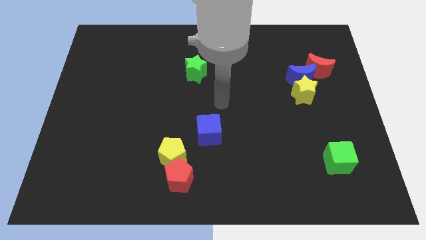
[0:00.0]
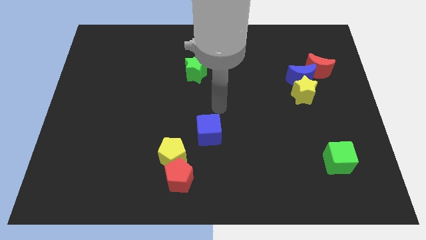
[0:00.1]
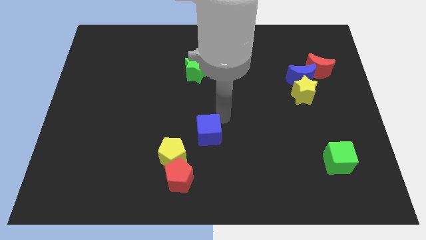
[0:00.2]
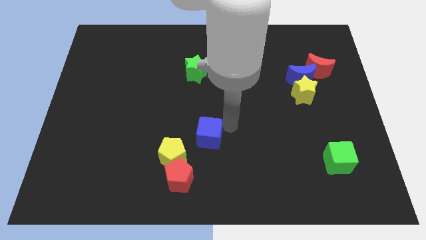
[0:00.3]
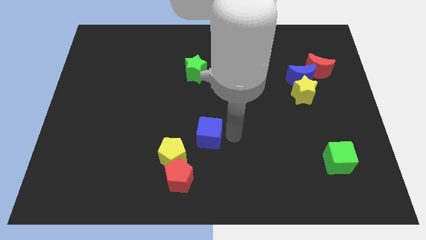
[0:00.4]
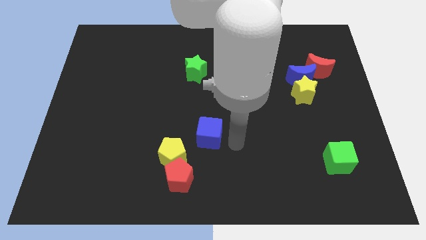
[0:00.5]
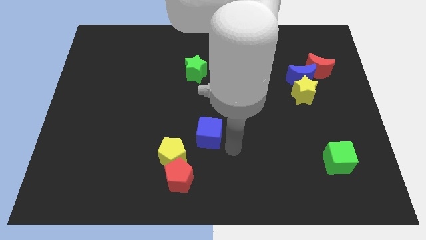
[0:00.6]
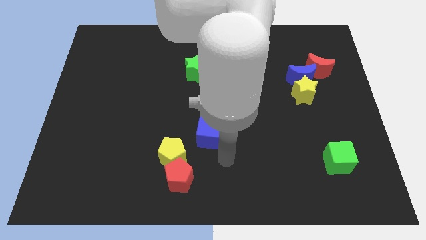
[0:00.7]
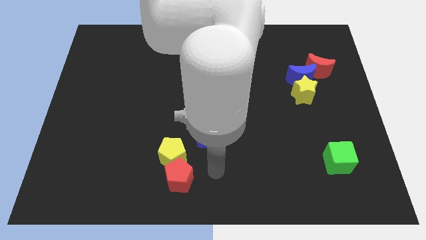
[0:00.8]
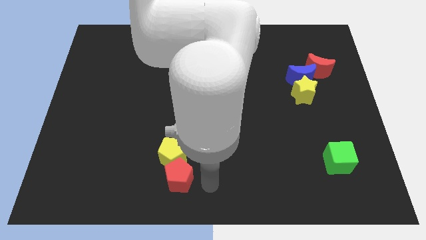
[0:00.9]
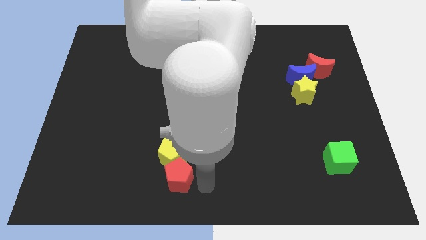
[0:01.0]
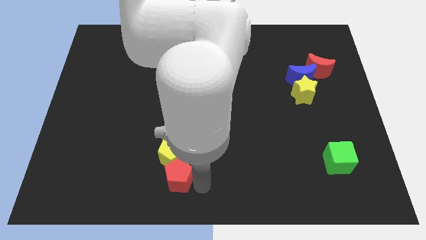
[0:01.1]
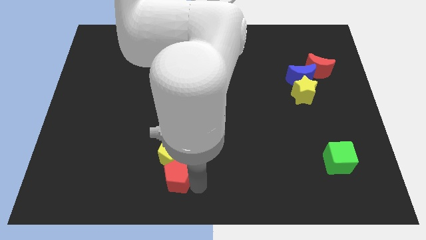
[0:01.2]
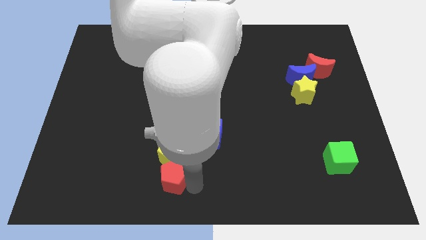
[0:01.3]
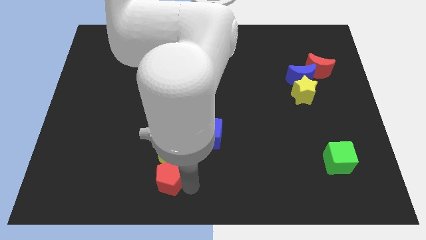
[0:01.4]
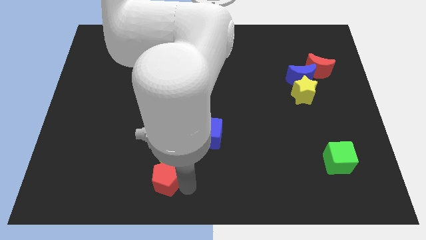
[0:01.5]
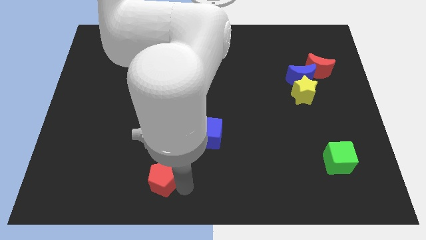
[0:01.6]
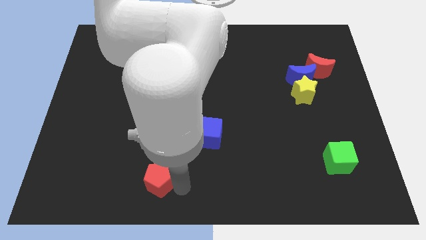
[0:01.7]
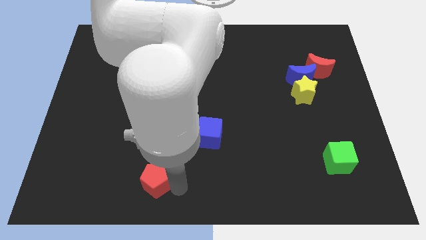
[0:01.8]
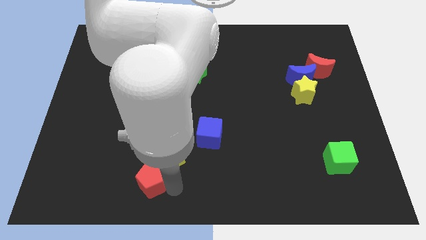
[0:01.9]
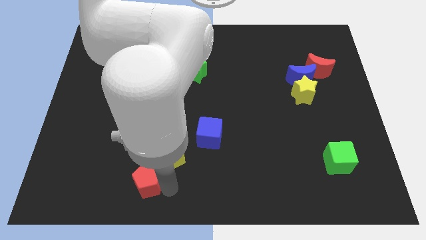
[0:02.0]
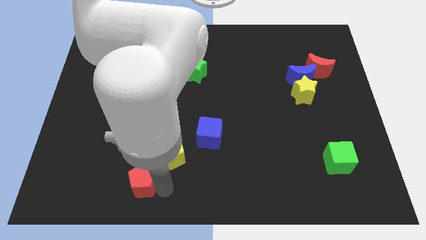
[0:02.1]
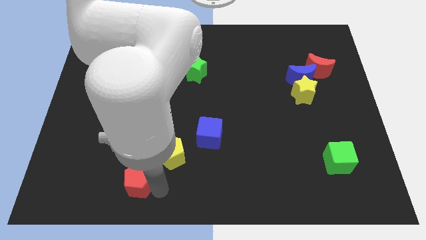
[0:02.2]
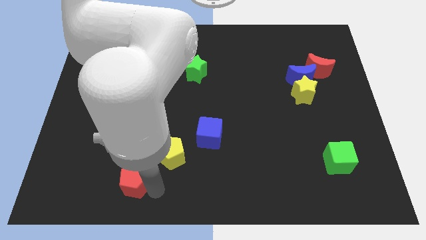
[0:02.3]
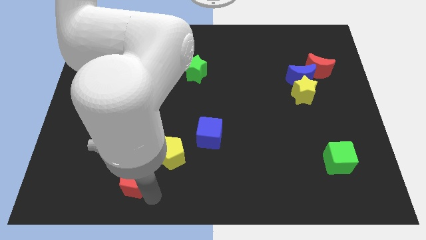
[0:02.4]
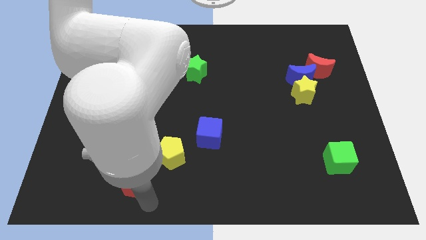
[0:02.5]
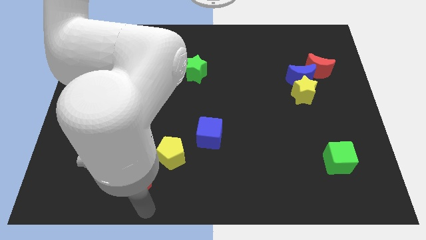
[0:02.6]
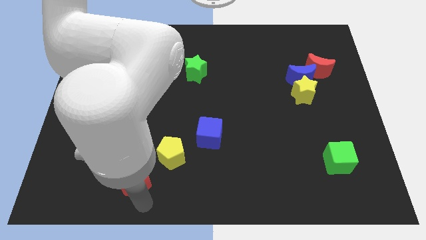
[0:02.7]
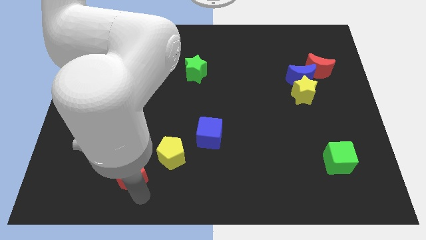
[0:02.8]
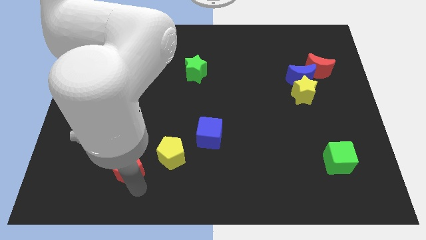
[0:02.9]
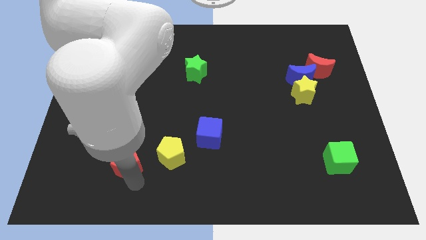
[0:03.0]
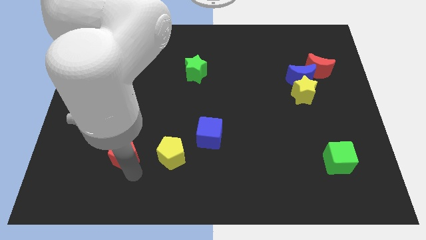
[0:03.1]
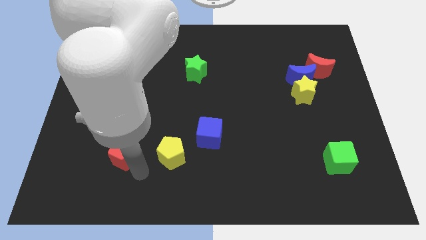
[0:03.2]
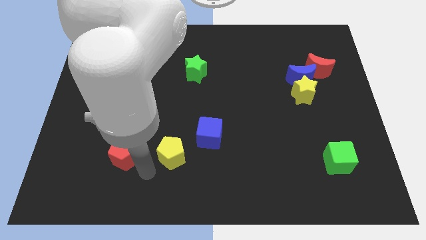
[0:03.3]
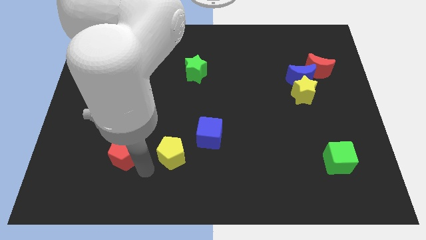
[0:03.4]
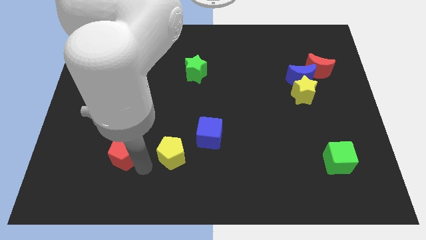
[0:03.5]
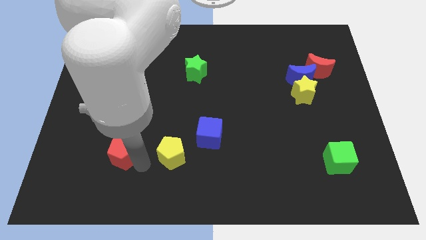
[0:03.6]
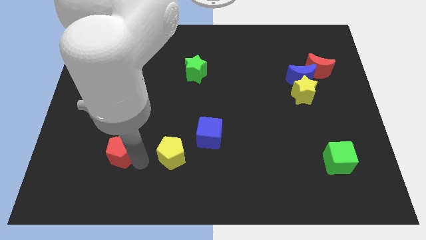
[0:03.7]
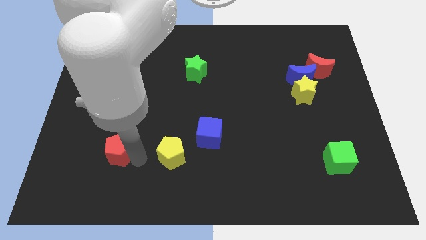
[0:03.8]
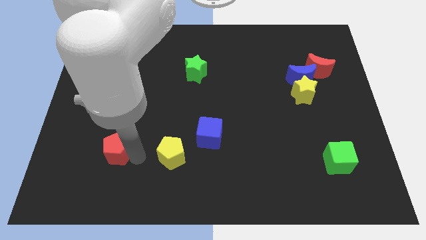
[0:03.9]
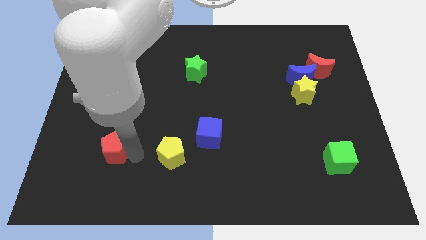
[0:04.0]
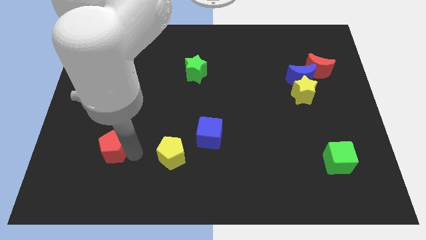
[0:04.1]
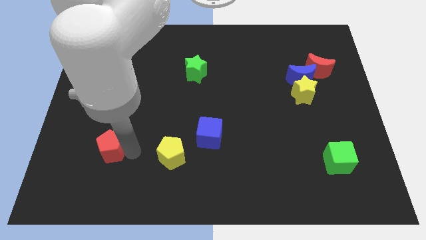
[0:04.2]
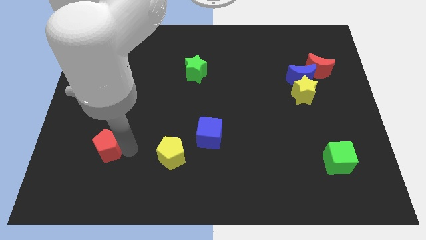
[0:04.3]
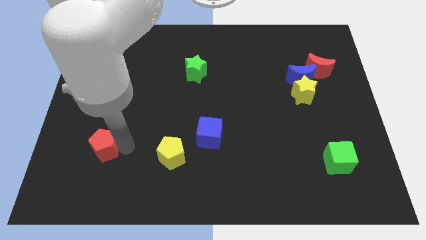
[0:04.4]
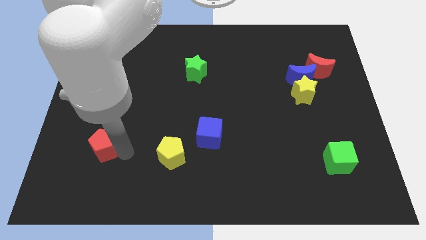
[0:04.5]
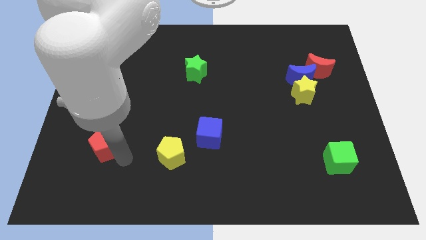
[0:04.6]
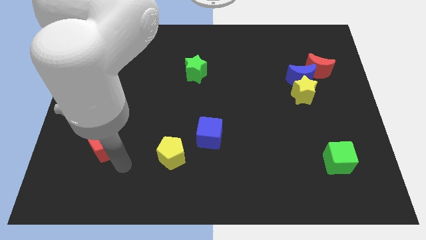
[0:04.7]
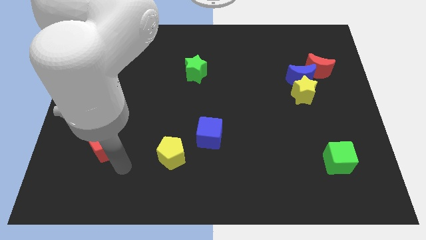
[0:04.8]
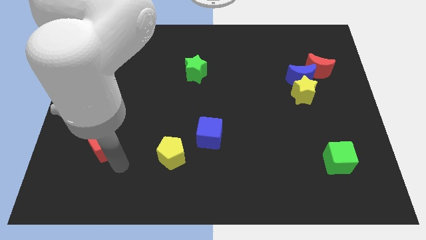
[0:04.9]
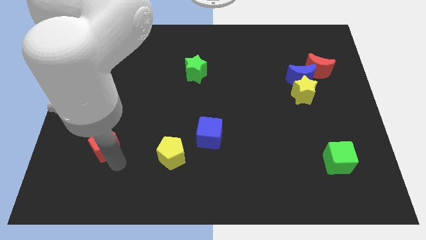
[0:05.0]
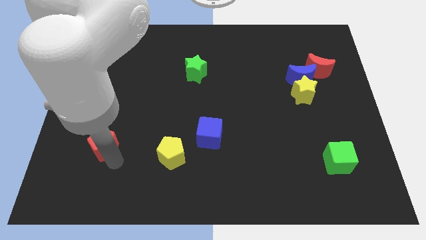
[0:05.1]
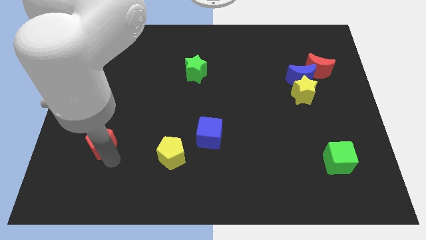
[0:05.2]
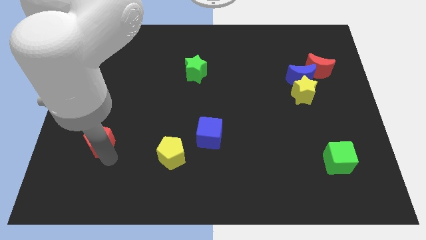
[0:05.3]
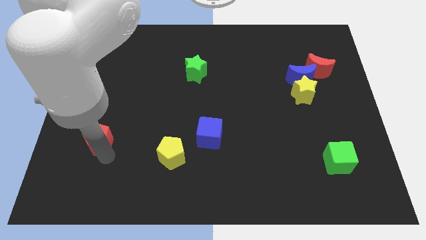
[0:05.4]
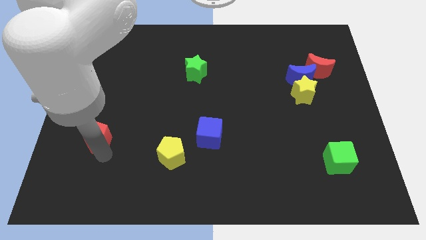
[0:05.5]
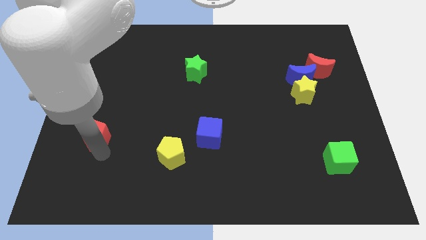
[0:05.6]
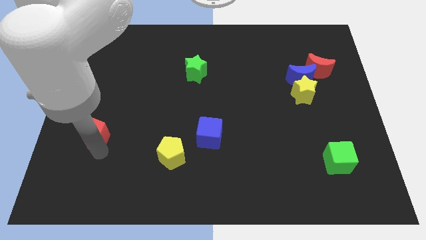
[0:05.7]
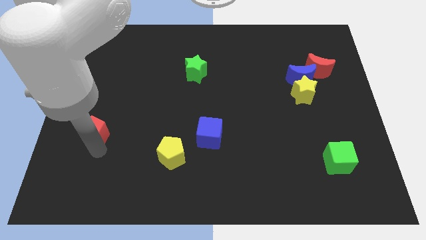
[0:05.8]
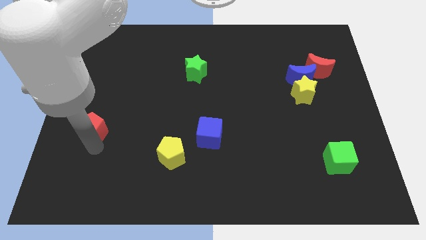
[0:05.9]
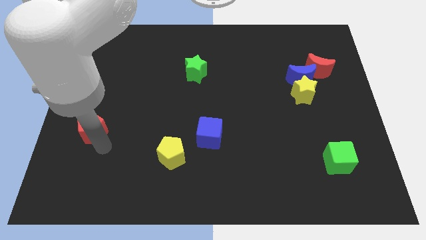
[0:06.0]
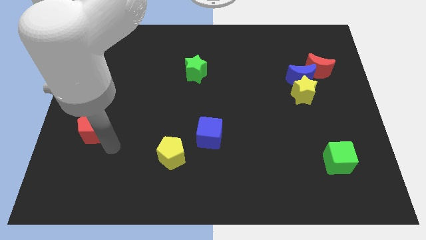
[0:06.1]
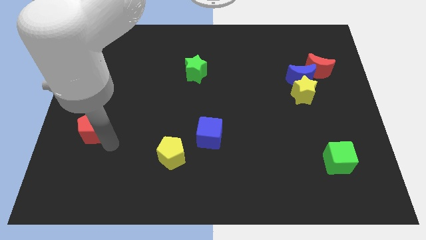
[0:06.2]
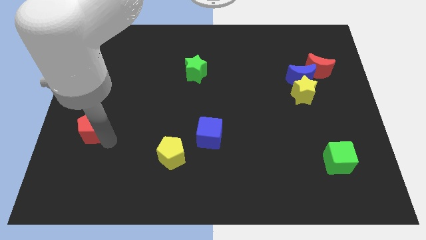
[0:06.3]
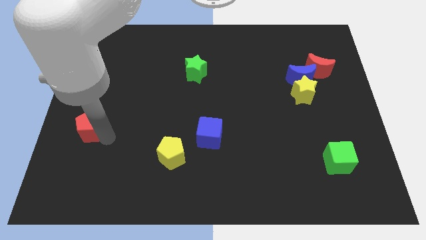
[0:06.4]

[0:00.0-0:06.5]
put the red pentagon to the left side of the board
